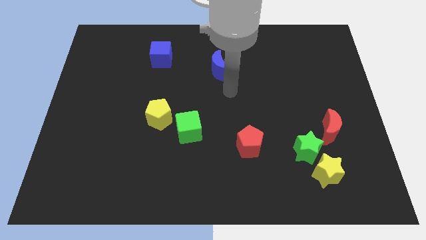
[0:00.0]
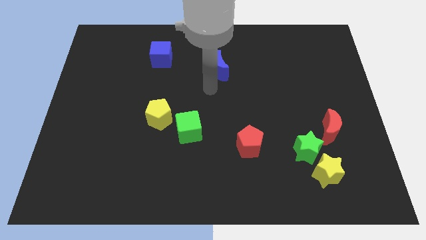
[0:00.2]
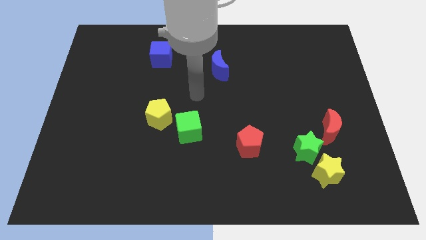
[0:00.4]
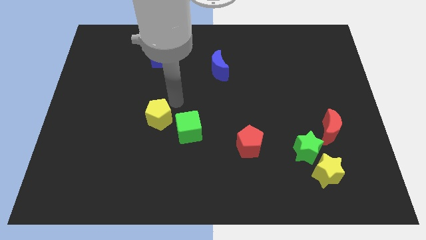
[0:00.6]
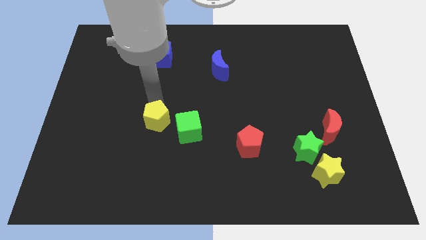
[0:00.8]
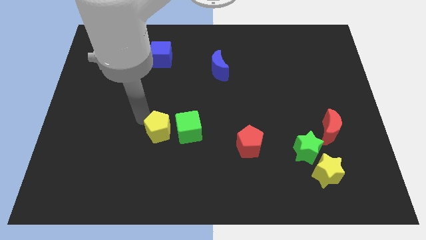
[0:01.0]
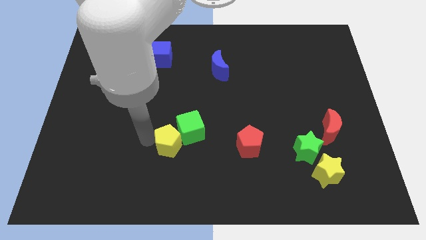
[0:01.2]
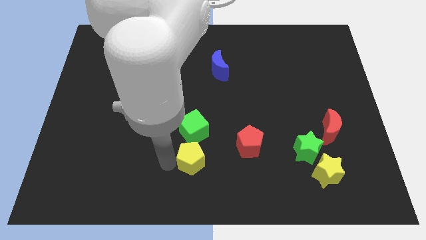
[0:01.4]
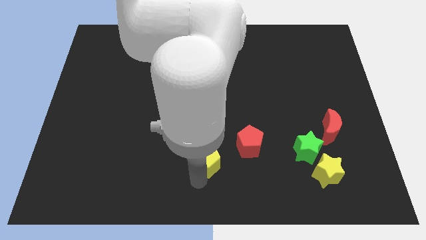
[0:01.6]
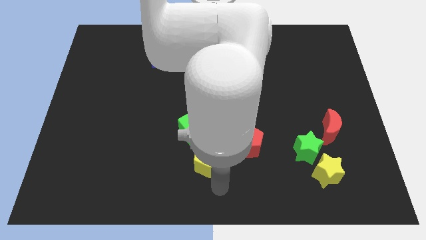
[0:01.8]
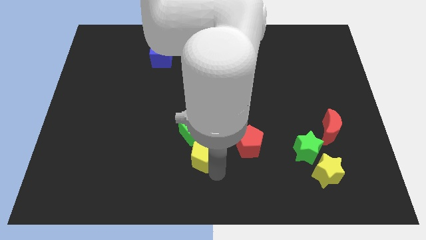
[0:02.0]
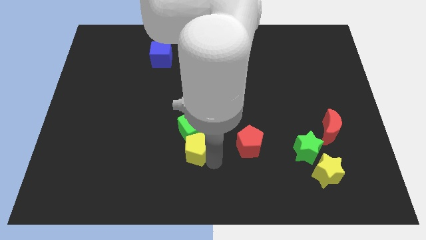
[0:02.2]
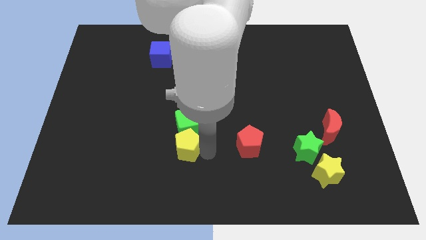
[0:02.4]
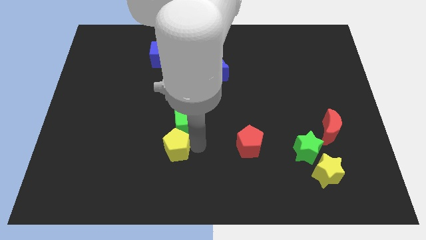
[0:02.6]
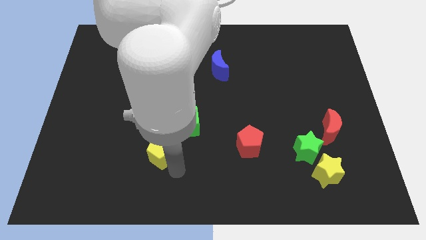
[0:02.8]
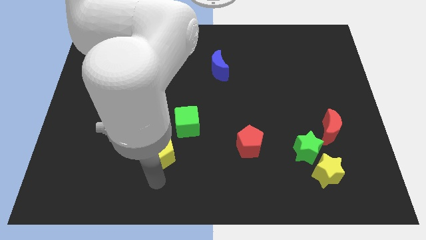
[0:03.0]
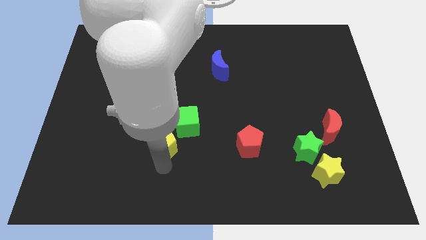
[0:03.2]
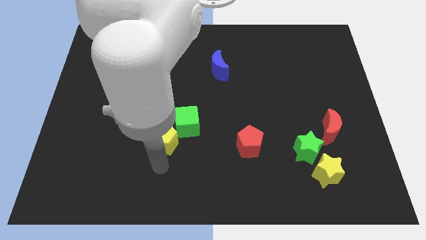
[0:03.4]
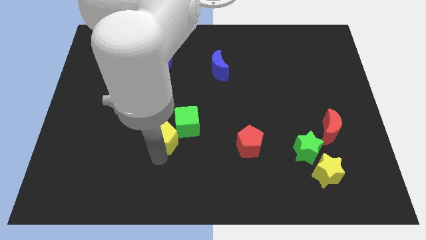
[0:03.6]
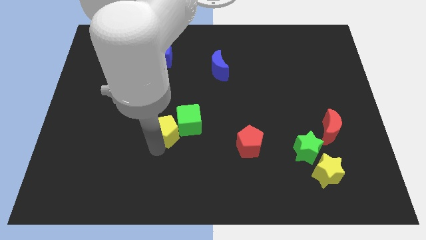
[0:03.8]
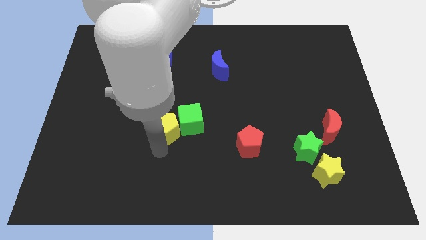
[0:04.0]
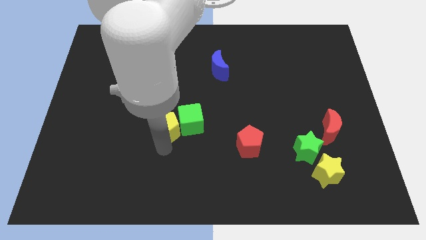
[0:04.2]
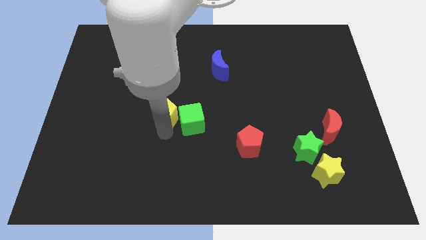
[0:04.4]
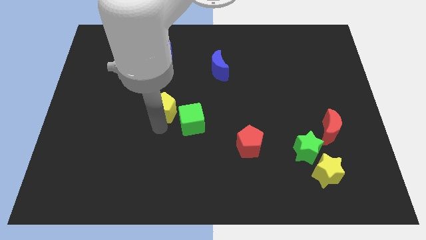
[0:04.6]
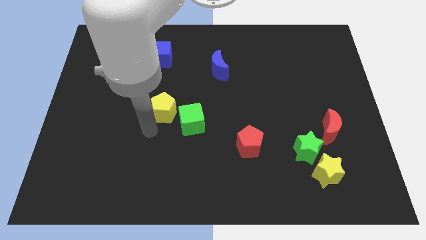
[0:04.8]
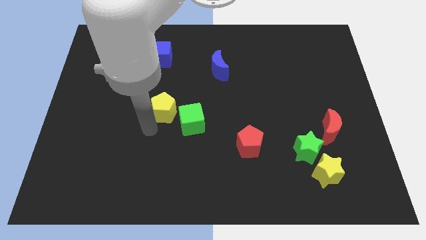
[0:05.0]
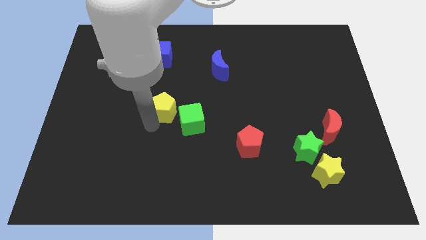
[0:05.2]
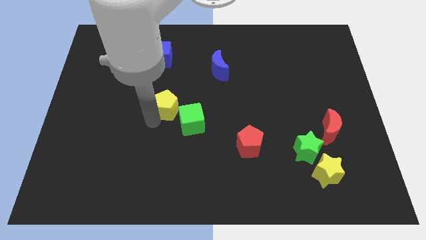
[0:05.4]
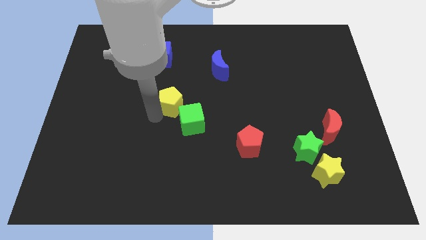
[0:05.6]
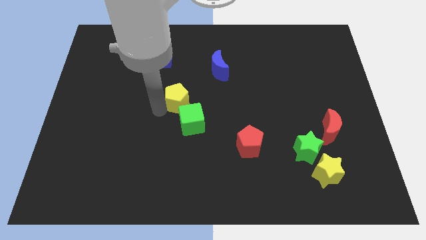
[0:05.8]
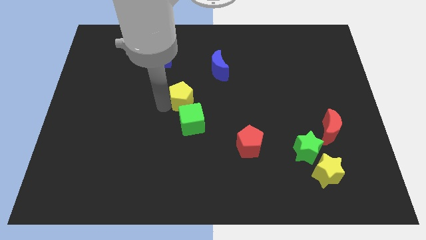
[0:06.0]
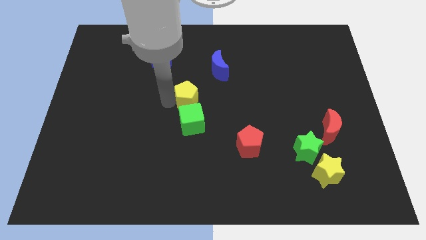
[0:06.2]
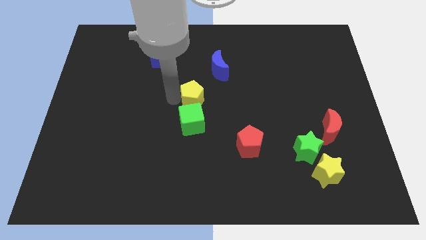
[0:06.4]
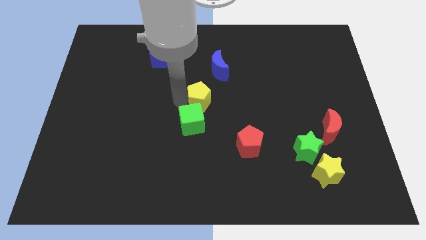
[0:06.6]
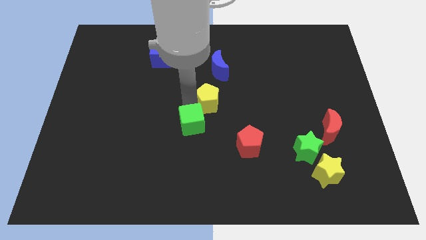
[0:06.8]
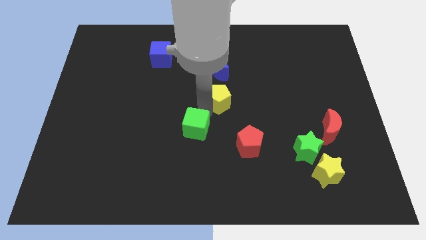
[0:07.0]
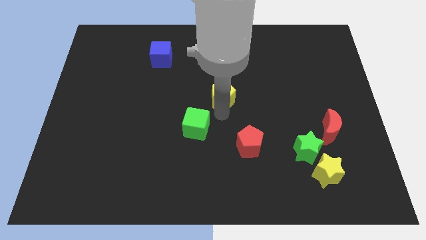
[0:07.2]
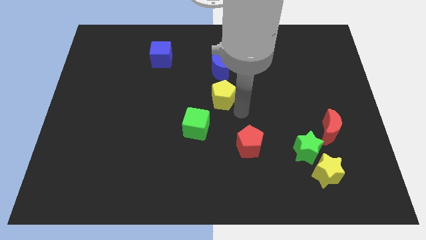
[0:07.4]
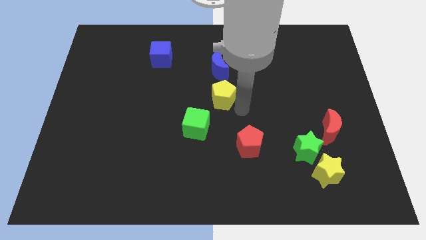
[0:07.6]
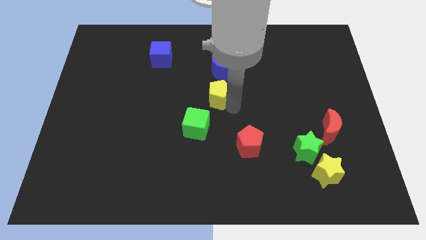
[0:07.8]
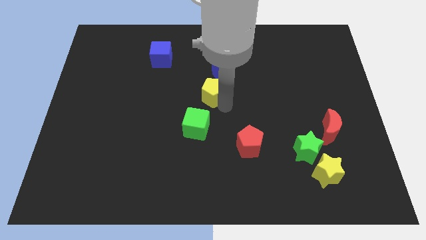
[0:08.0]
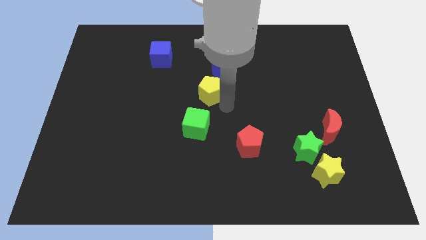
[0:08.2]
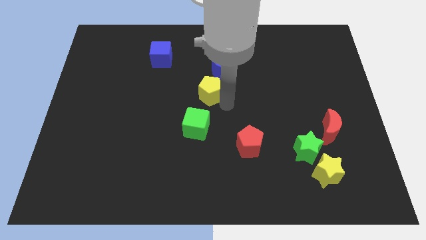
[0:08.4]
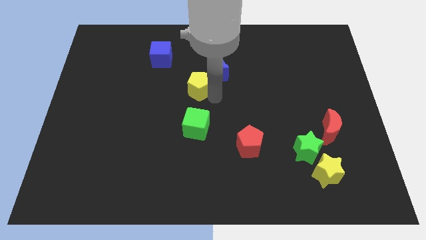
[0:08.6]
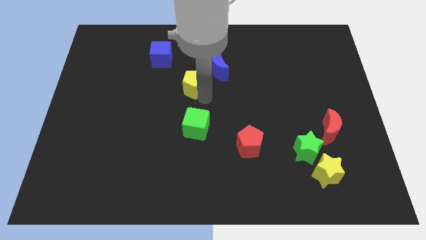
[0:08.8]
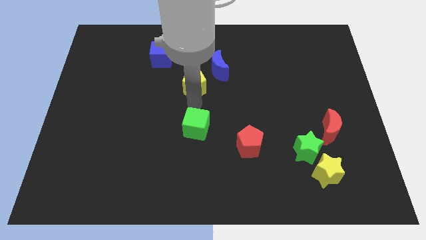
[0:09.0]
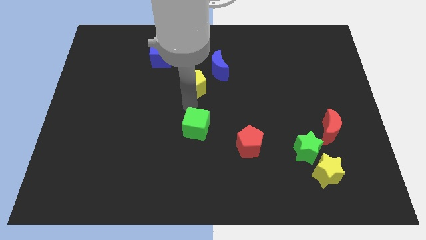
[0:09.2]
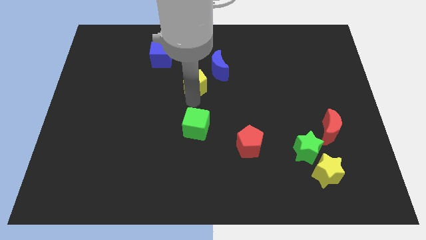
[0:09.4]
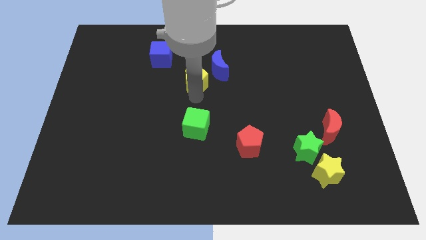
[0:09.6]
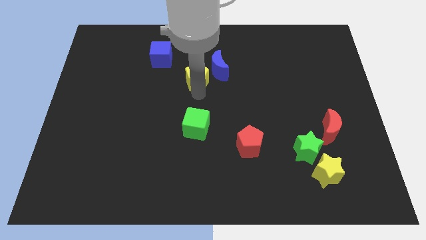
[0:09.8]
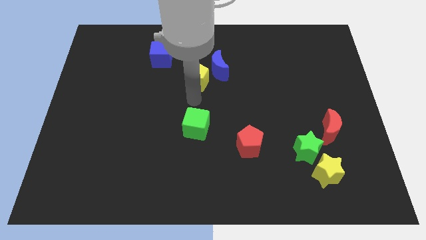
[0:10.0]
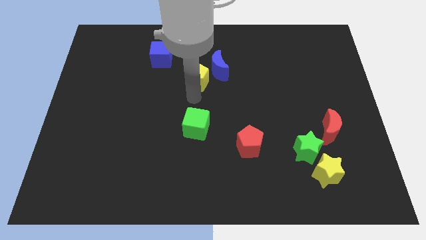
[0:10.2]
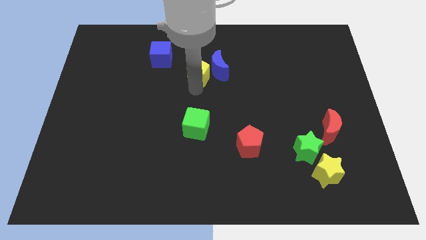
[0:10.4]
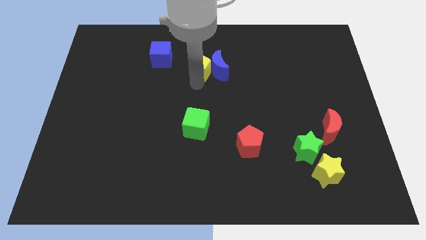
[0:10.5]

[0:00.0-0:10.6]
push the yellow pentagon to the right of the blue cube

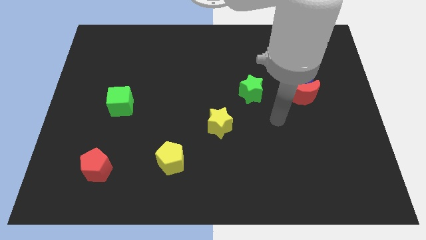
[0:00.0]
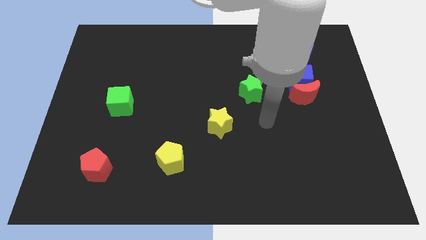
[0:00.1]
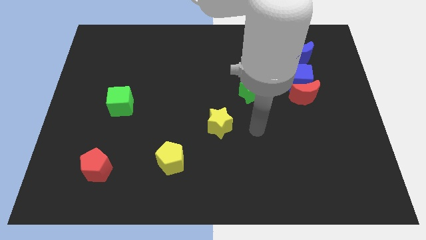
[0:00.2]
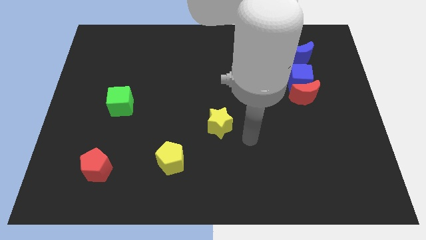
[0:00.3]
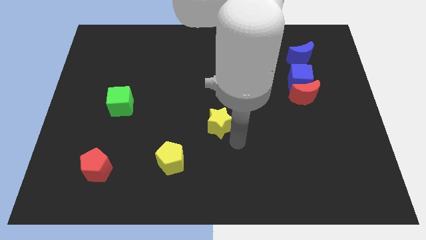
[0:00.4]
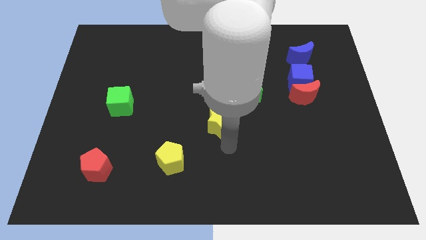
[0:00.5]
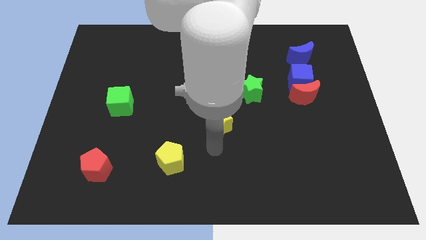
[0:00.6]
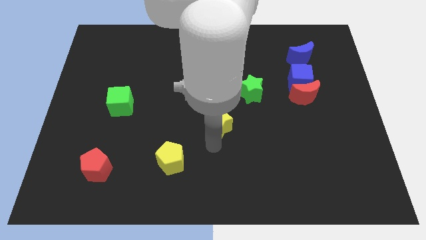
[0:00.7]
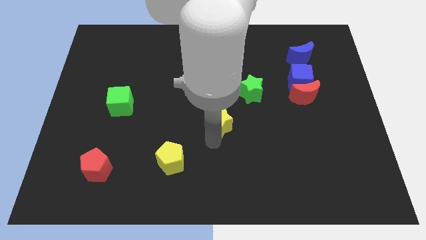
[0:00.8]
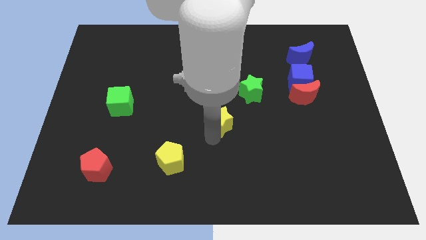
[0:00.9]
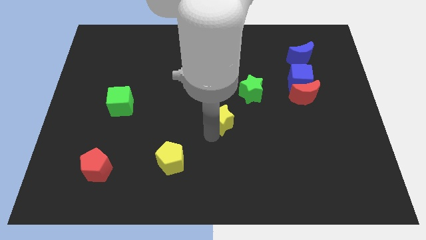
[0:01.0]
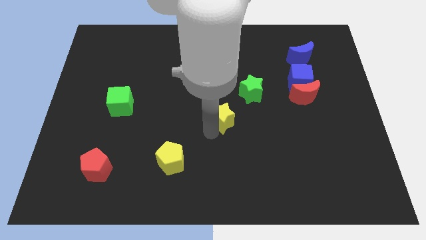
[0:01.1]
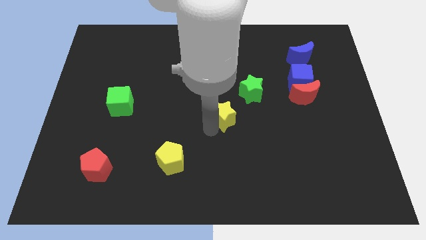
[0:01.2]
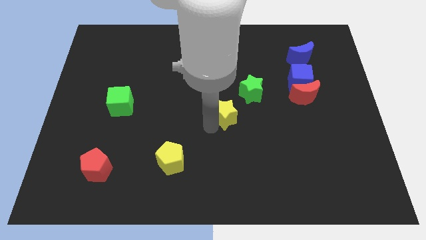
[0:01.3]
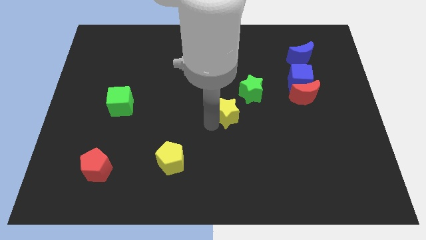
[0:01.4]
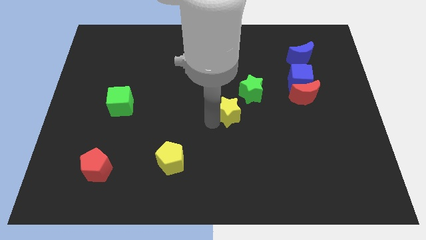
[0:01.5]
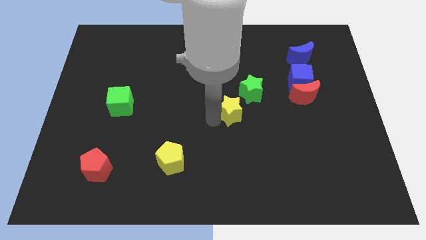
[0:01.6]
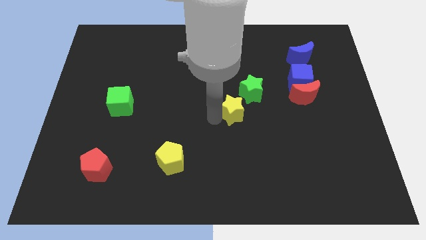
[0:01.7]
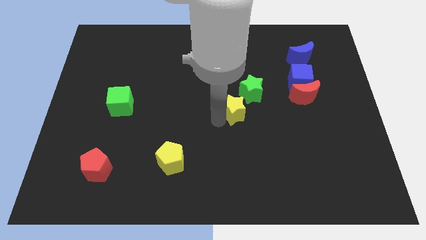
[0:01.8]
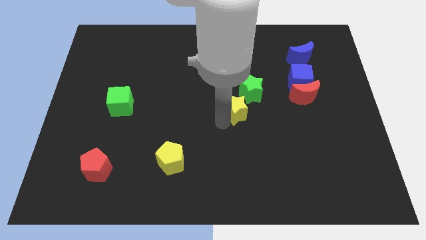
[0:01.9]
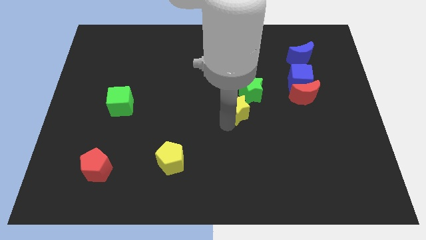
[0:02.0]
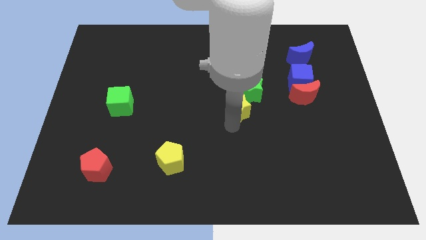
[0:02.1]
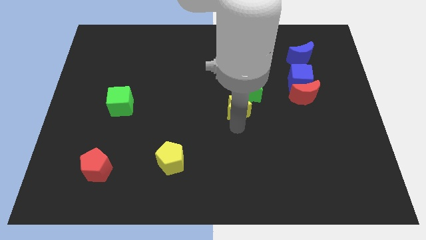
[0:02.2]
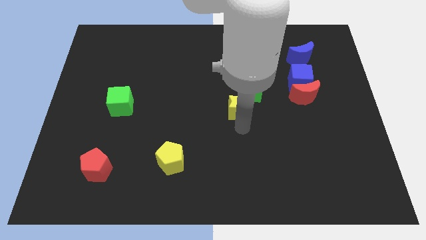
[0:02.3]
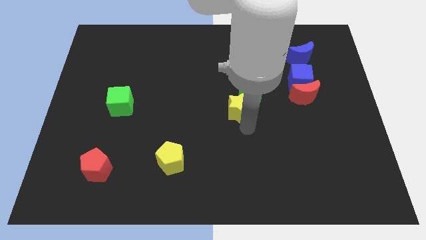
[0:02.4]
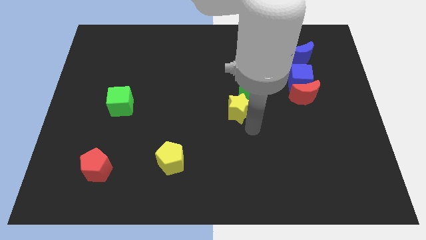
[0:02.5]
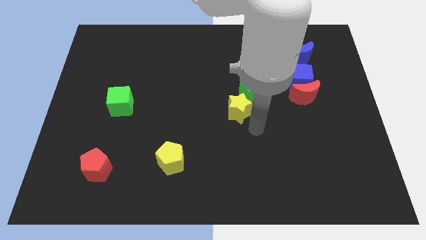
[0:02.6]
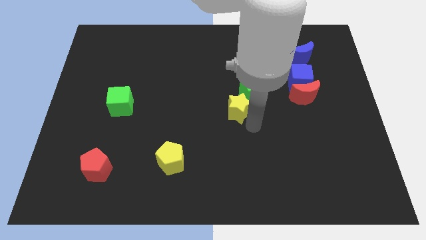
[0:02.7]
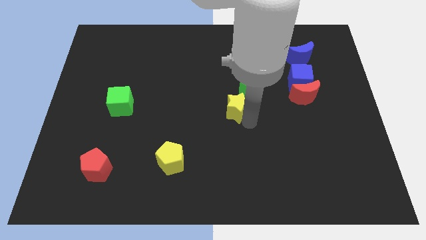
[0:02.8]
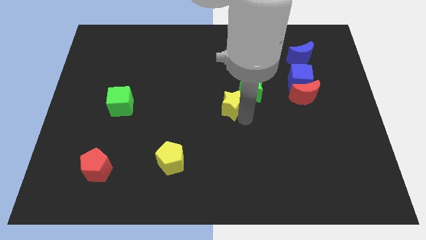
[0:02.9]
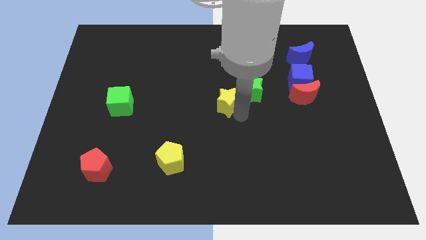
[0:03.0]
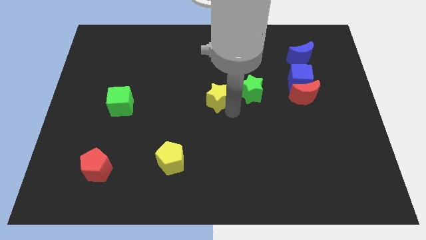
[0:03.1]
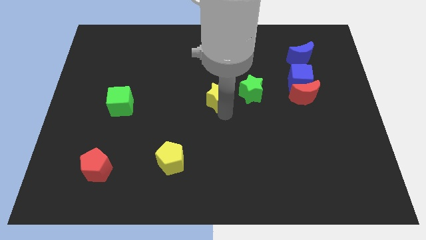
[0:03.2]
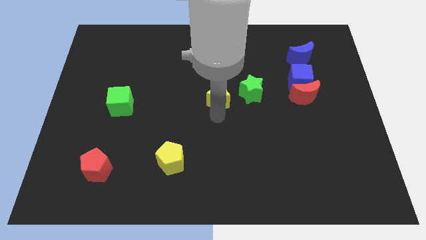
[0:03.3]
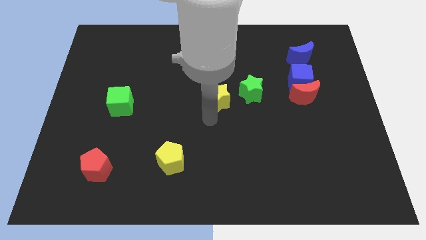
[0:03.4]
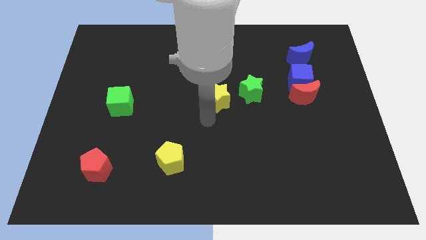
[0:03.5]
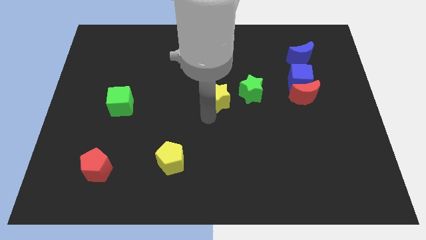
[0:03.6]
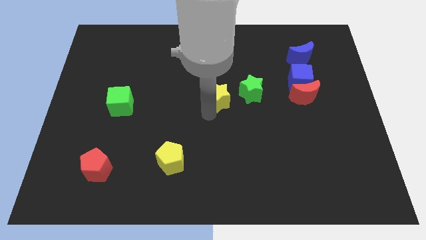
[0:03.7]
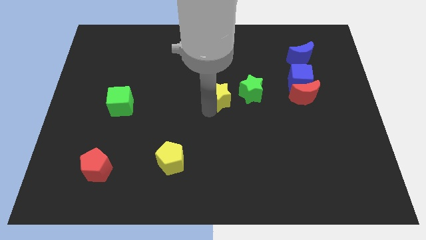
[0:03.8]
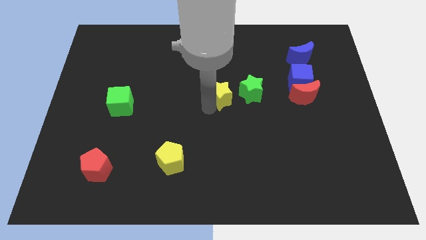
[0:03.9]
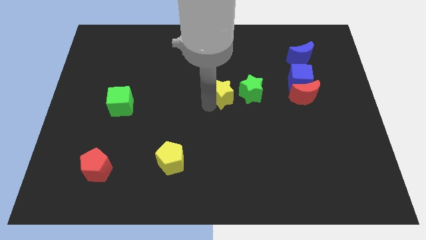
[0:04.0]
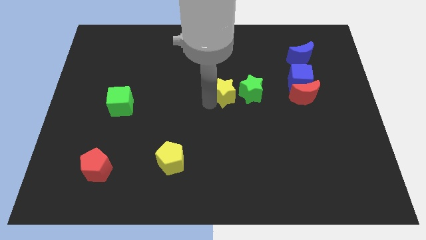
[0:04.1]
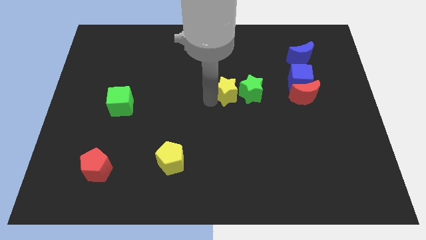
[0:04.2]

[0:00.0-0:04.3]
put the yellow star diagonally up and to the left of the green star
